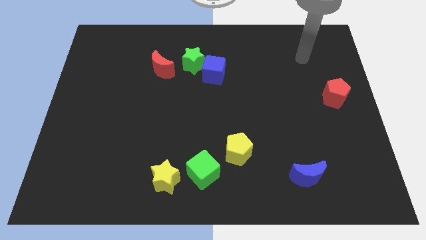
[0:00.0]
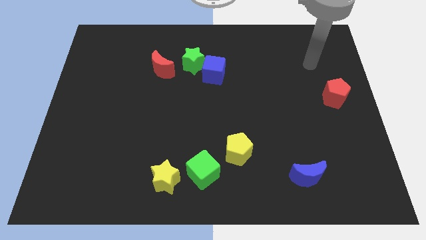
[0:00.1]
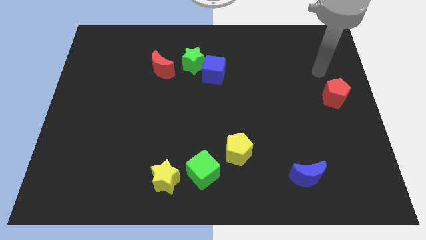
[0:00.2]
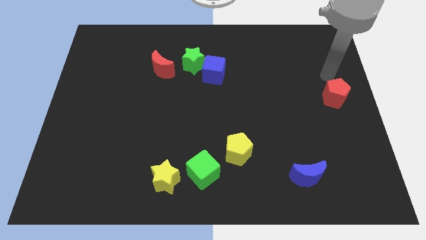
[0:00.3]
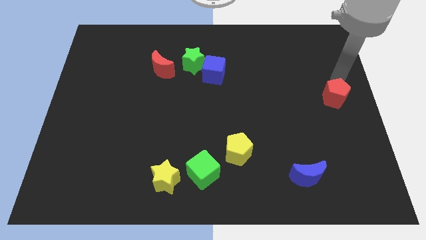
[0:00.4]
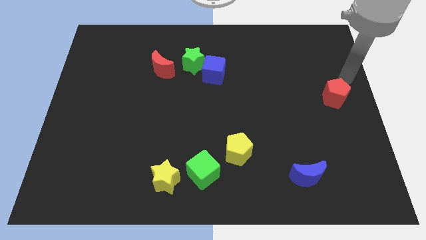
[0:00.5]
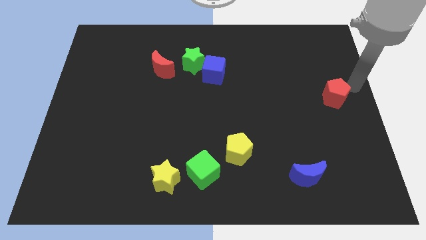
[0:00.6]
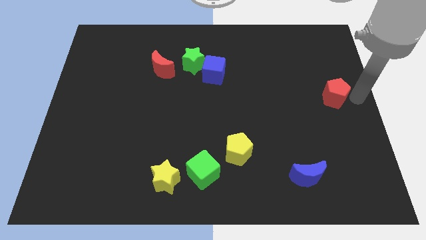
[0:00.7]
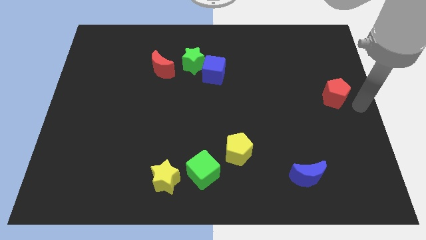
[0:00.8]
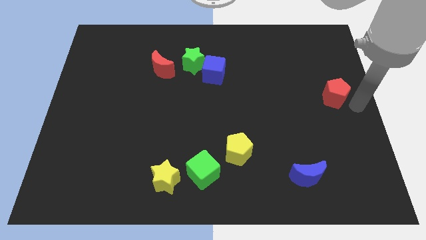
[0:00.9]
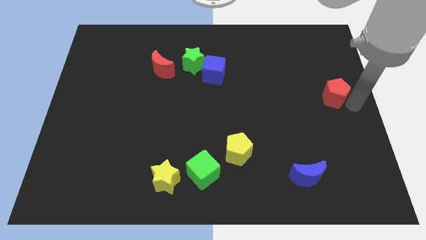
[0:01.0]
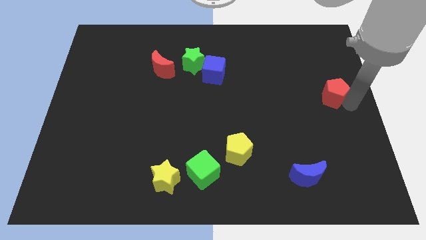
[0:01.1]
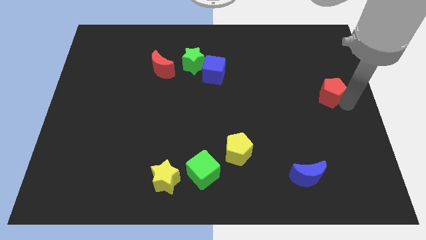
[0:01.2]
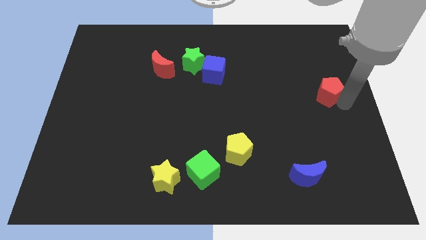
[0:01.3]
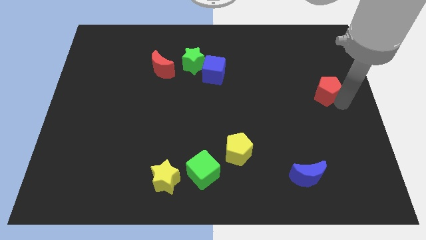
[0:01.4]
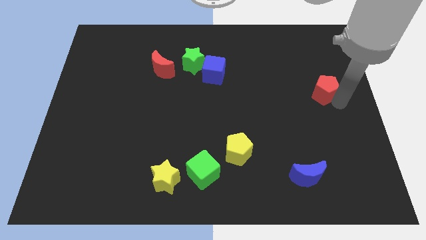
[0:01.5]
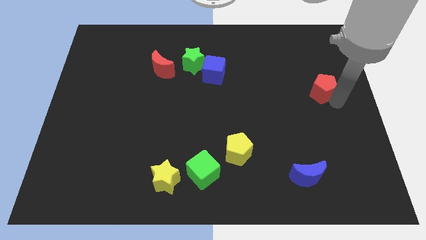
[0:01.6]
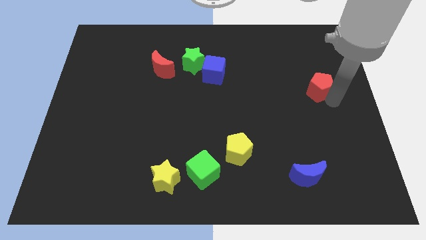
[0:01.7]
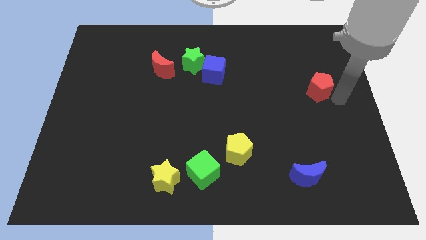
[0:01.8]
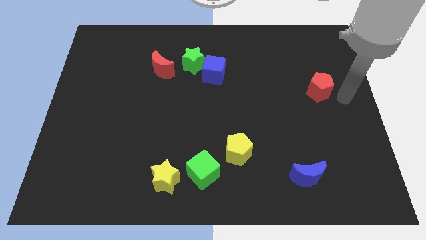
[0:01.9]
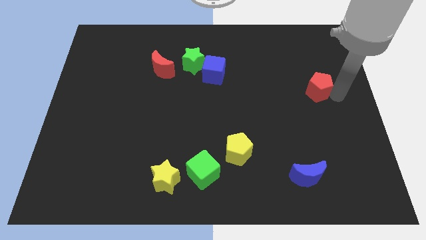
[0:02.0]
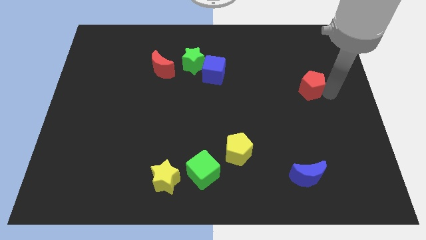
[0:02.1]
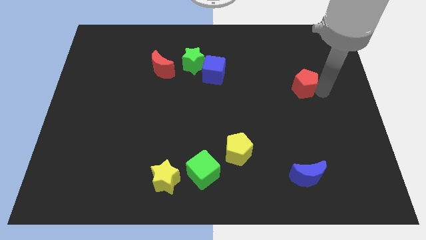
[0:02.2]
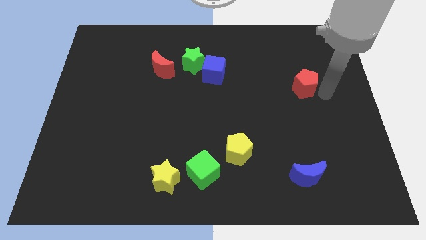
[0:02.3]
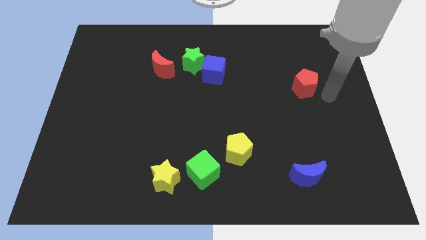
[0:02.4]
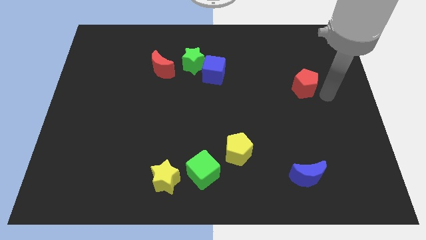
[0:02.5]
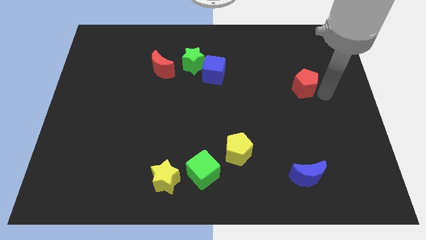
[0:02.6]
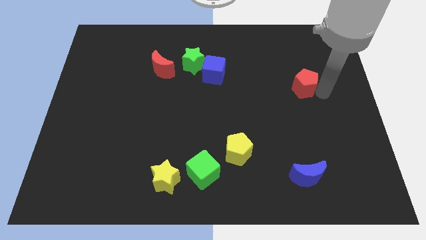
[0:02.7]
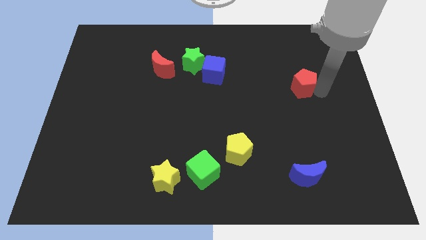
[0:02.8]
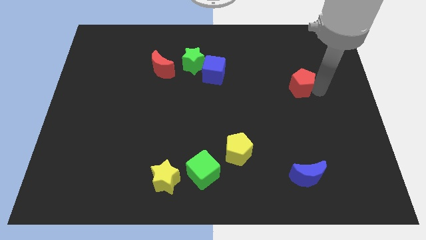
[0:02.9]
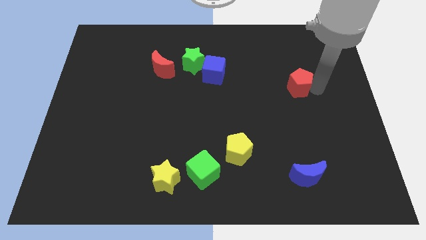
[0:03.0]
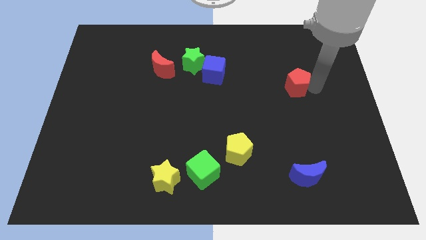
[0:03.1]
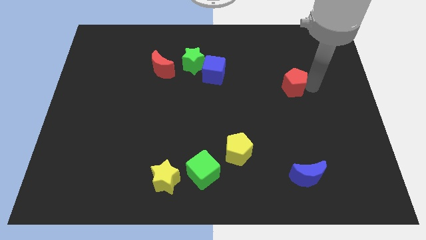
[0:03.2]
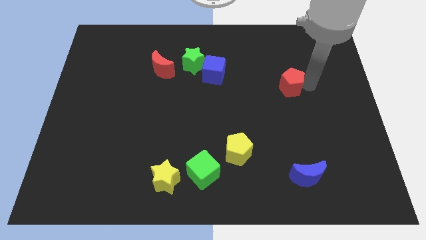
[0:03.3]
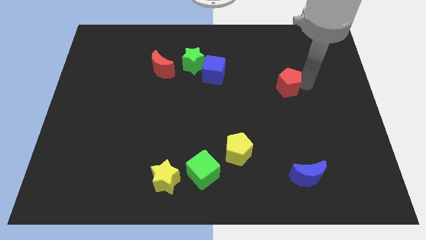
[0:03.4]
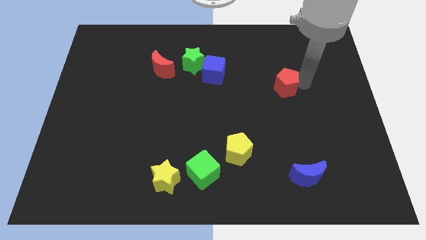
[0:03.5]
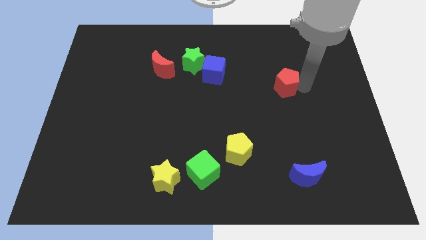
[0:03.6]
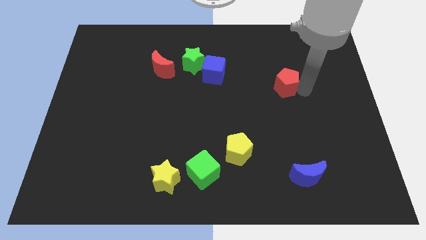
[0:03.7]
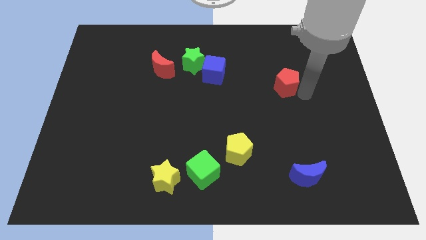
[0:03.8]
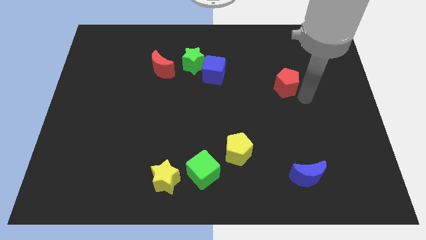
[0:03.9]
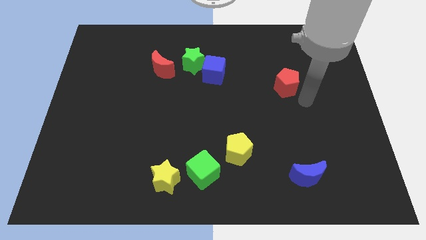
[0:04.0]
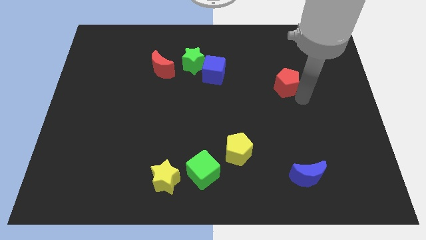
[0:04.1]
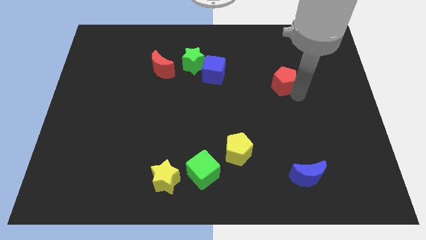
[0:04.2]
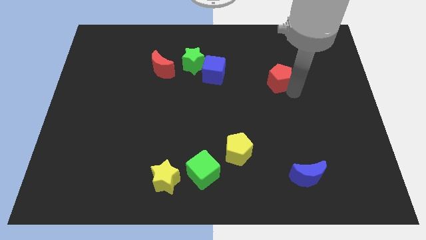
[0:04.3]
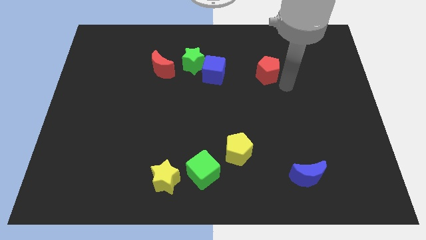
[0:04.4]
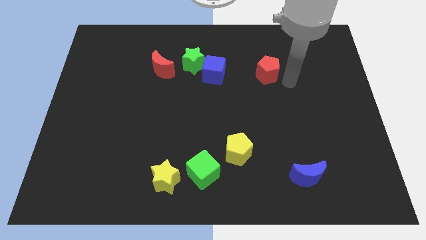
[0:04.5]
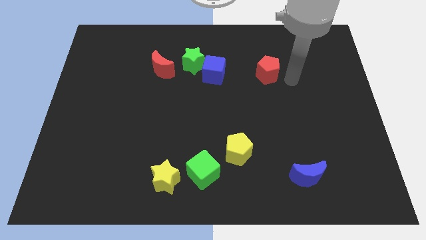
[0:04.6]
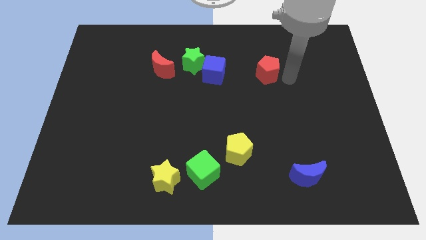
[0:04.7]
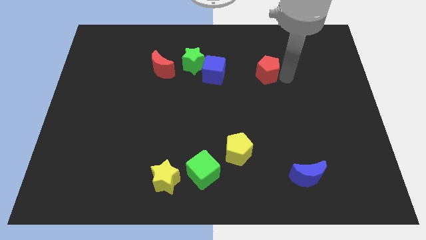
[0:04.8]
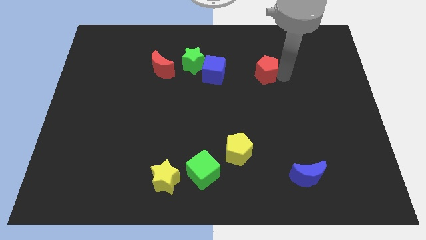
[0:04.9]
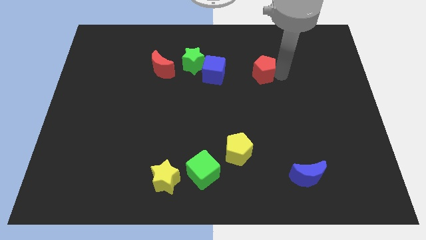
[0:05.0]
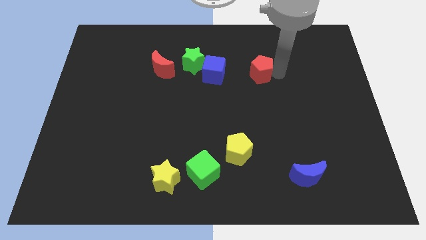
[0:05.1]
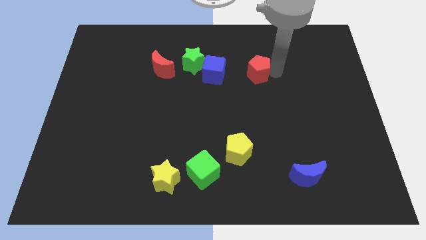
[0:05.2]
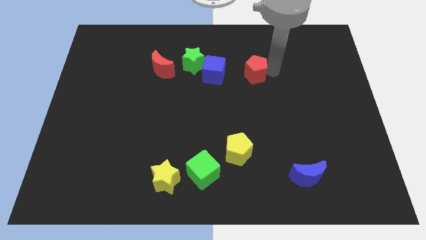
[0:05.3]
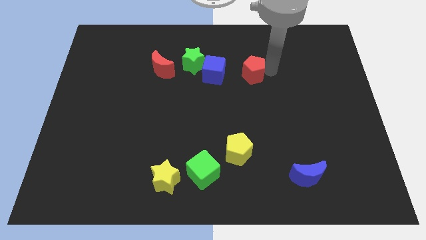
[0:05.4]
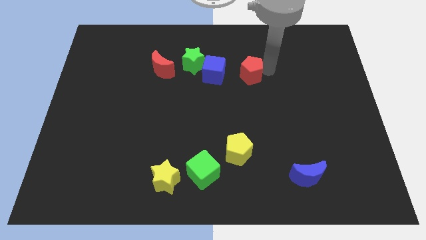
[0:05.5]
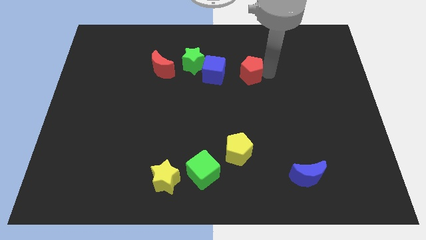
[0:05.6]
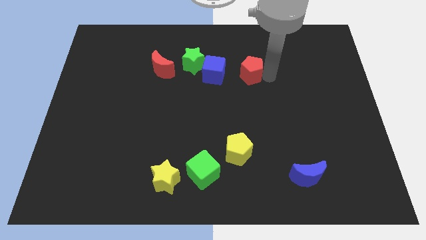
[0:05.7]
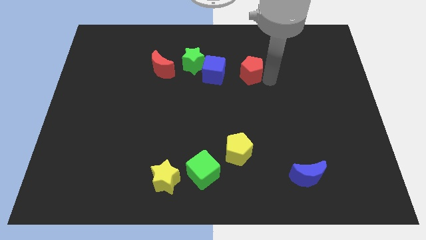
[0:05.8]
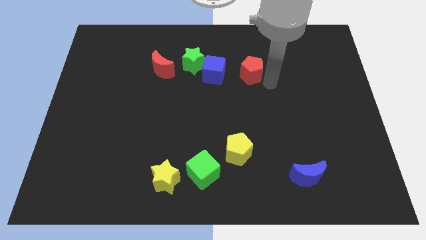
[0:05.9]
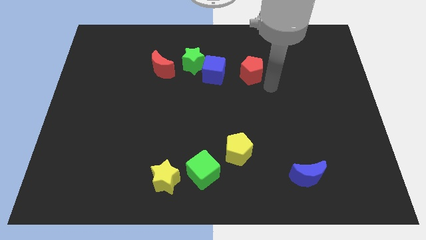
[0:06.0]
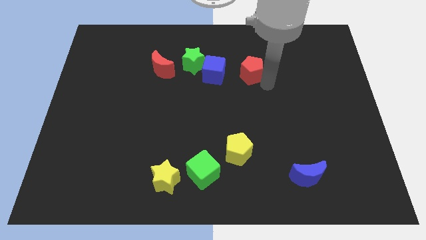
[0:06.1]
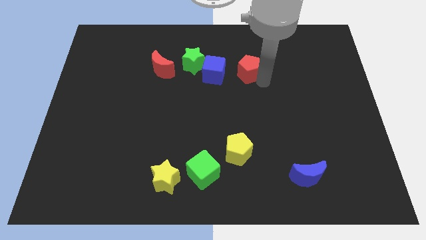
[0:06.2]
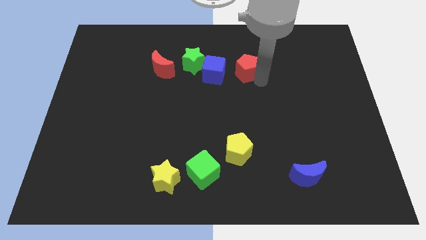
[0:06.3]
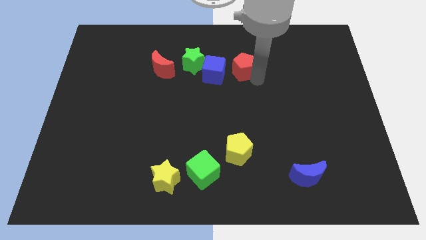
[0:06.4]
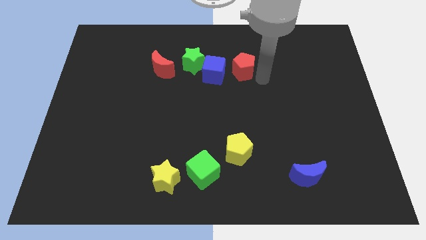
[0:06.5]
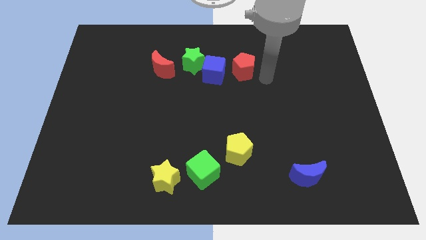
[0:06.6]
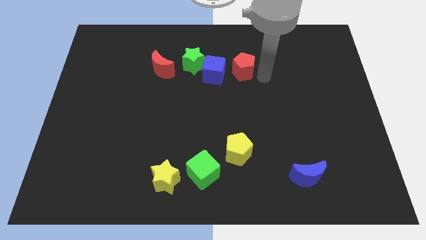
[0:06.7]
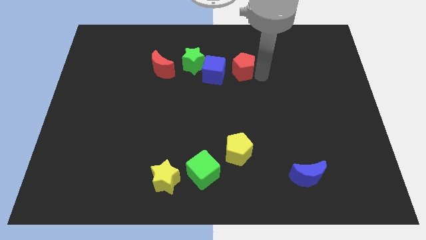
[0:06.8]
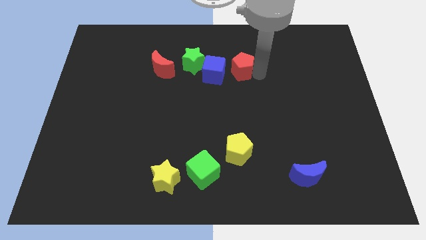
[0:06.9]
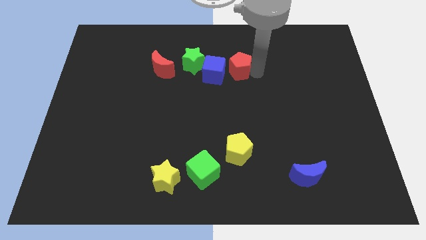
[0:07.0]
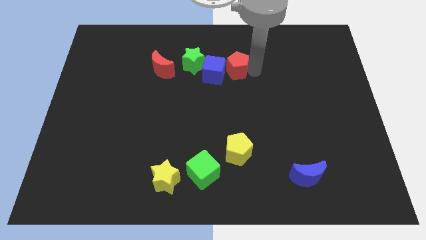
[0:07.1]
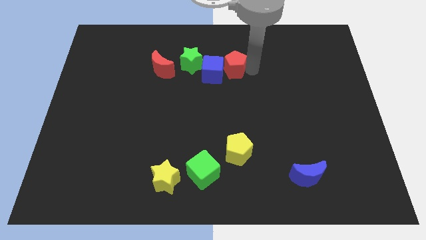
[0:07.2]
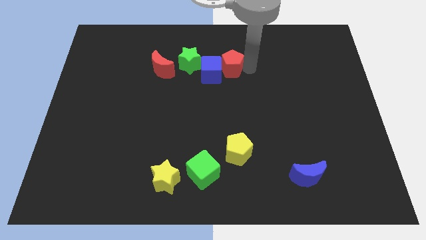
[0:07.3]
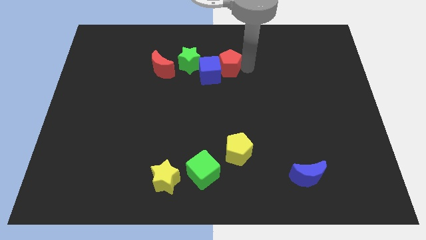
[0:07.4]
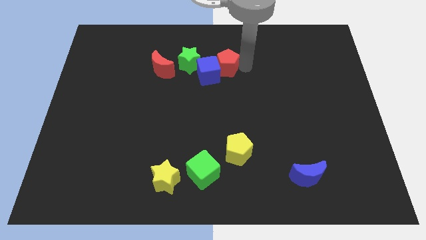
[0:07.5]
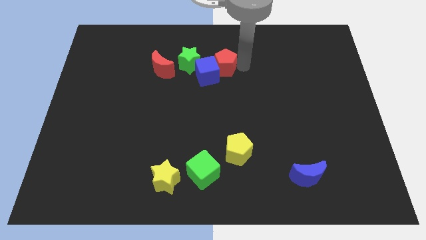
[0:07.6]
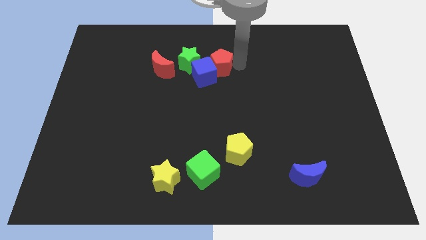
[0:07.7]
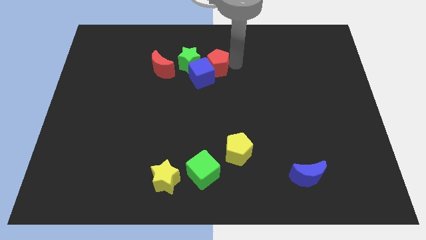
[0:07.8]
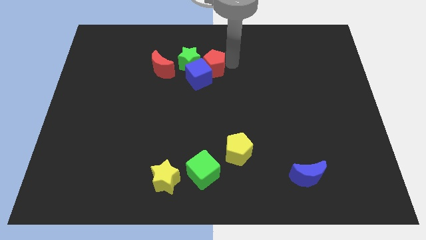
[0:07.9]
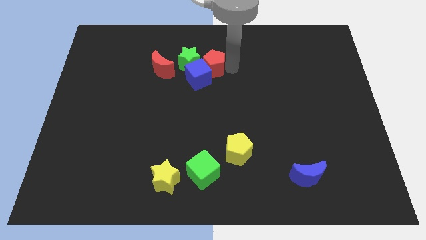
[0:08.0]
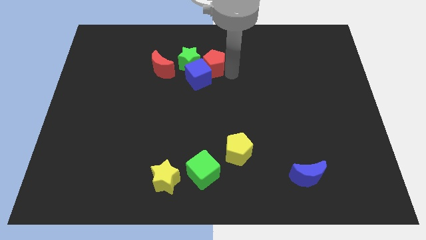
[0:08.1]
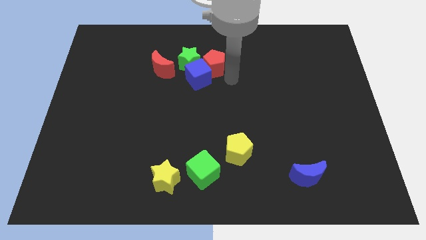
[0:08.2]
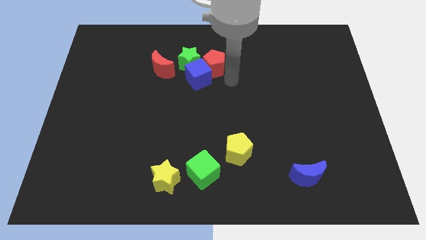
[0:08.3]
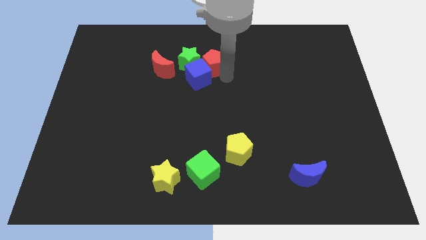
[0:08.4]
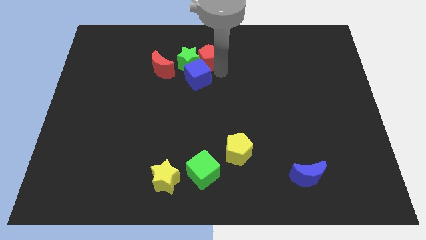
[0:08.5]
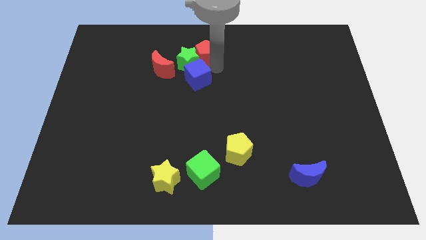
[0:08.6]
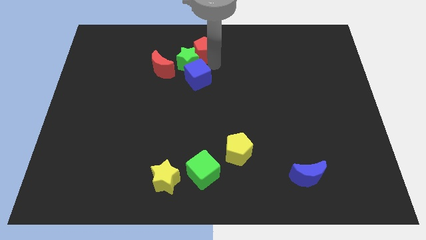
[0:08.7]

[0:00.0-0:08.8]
slide the red pentagon diagonally up and to the right of the red moon
